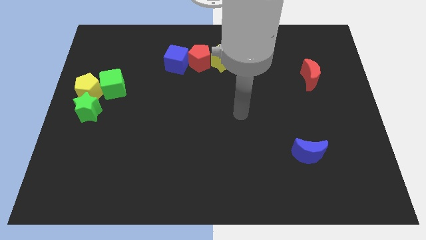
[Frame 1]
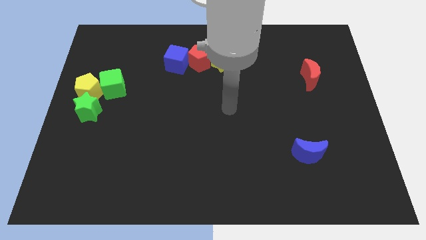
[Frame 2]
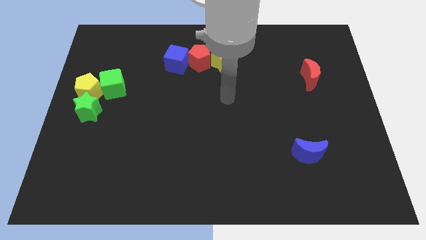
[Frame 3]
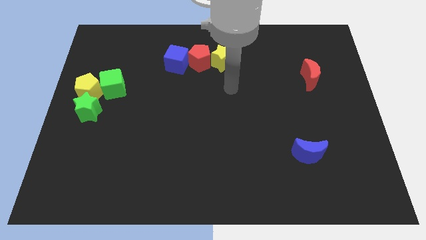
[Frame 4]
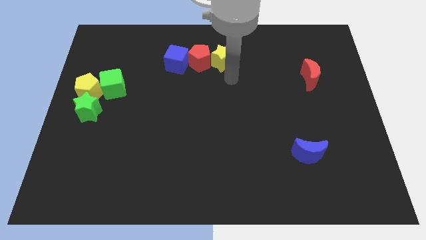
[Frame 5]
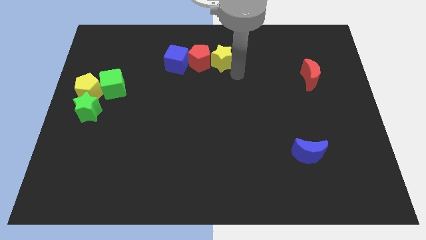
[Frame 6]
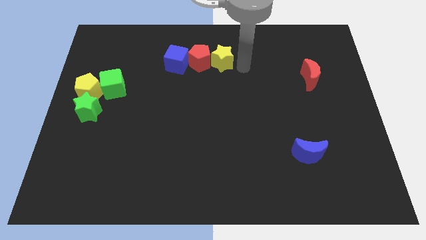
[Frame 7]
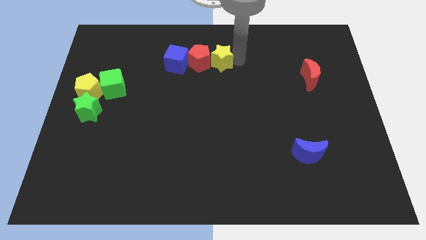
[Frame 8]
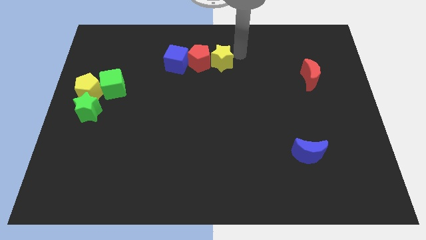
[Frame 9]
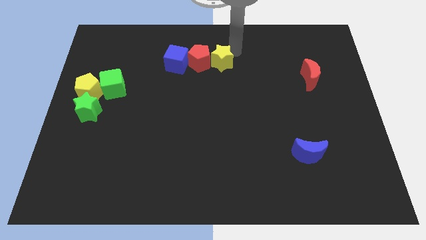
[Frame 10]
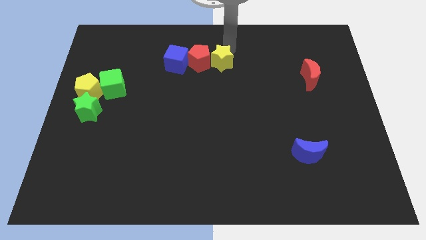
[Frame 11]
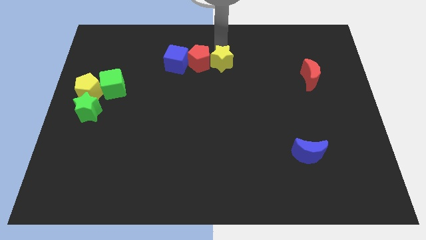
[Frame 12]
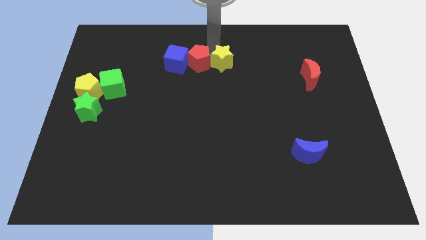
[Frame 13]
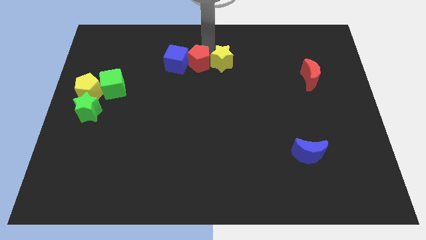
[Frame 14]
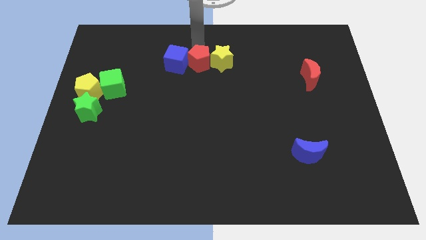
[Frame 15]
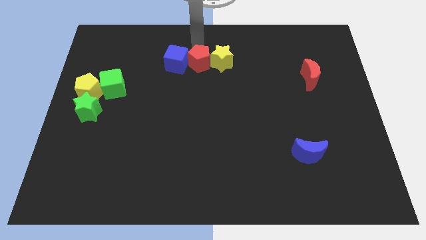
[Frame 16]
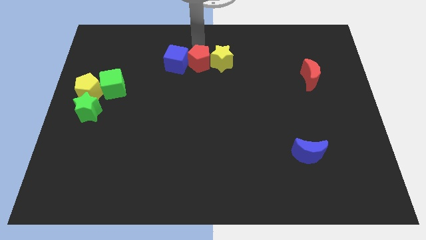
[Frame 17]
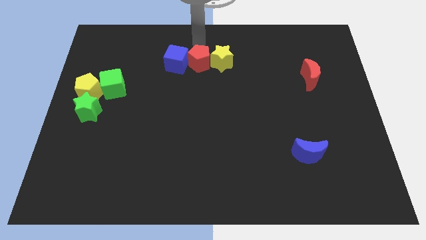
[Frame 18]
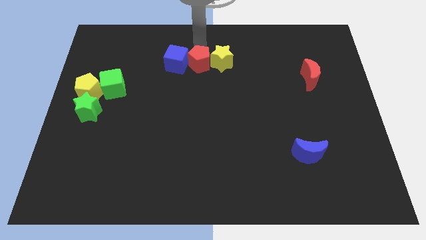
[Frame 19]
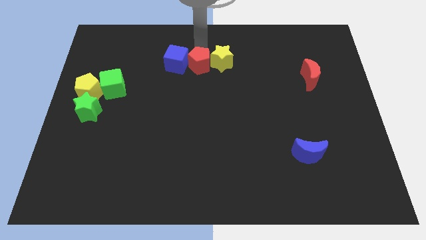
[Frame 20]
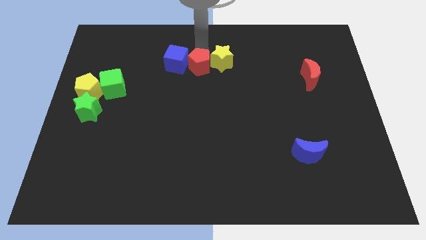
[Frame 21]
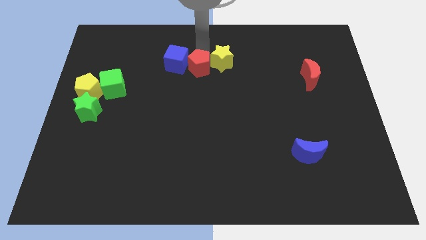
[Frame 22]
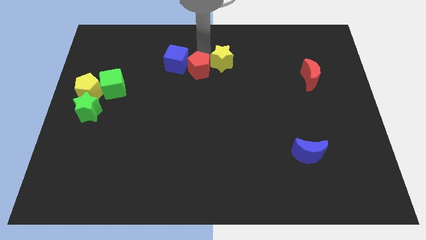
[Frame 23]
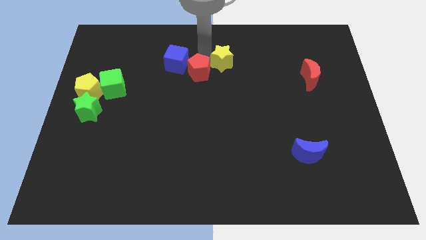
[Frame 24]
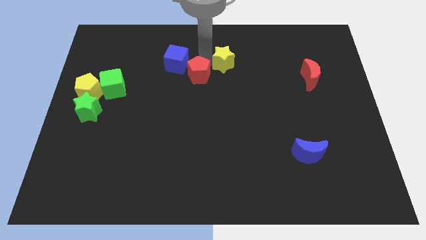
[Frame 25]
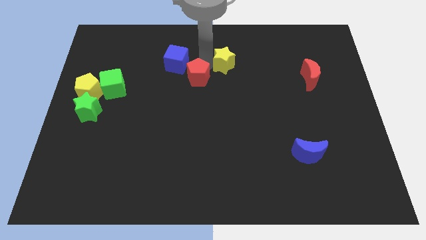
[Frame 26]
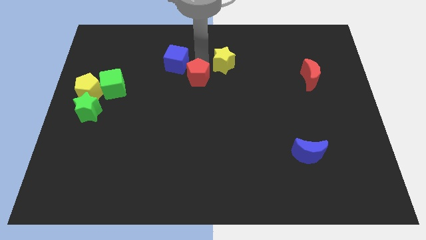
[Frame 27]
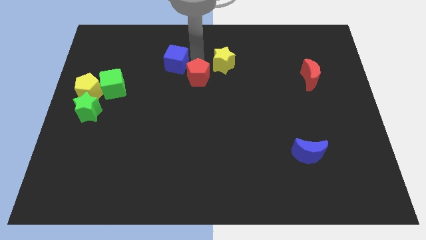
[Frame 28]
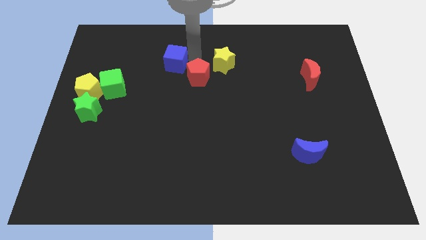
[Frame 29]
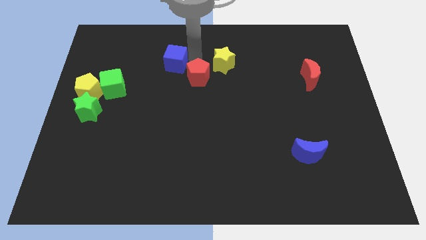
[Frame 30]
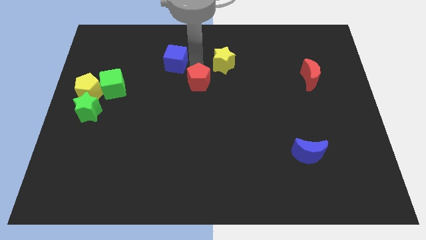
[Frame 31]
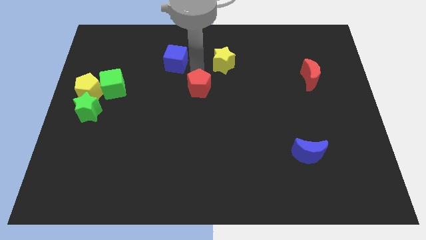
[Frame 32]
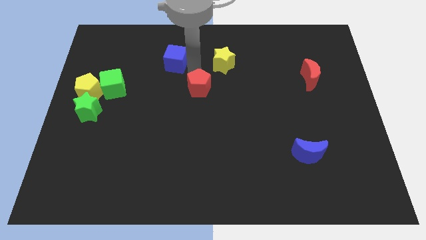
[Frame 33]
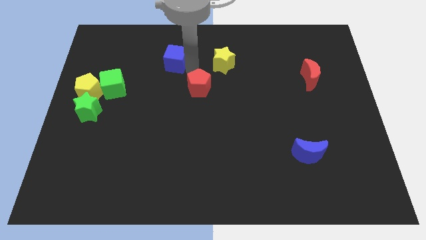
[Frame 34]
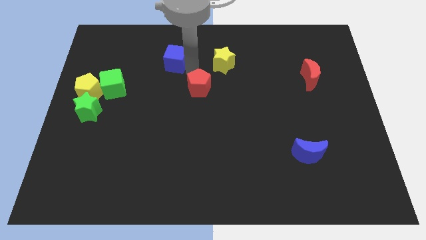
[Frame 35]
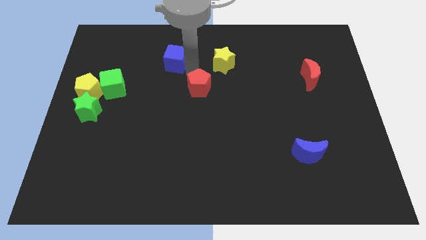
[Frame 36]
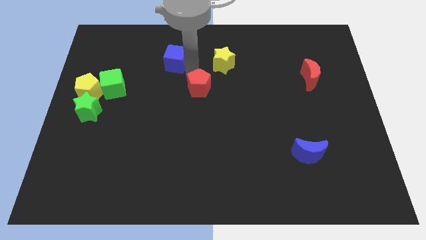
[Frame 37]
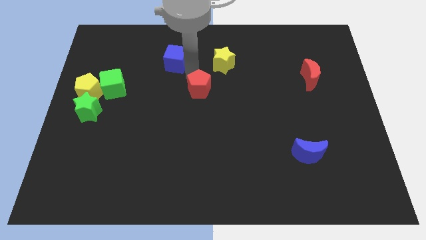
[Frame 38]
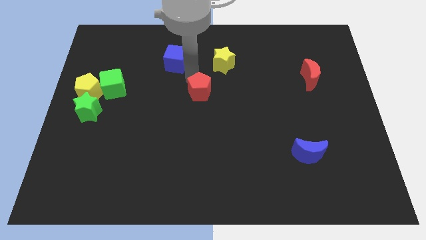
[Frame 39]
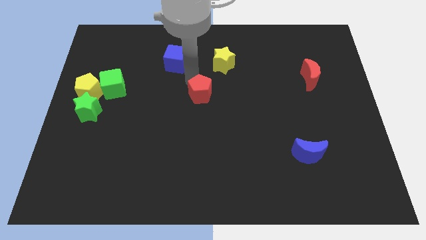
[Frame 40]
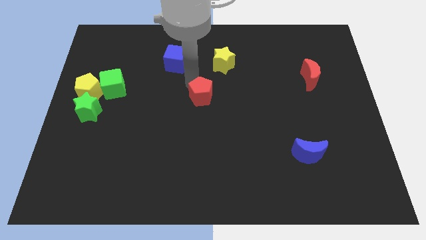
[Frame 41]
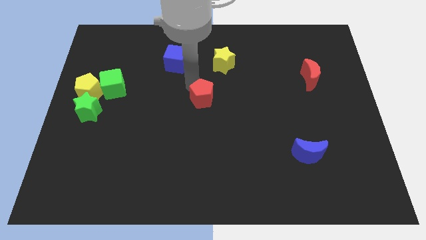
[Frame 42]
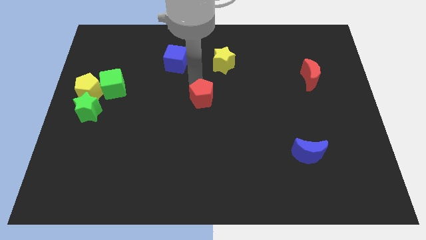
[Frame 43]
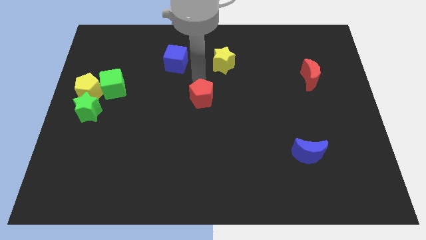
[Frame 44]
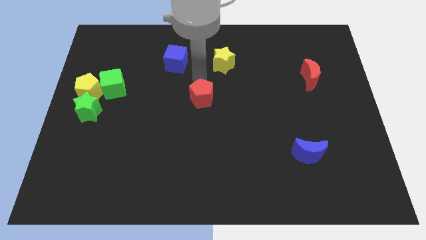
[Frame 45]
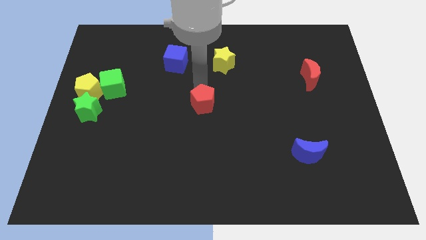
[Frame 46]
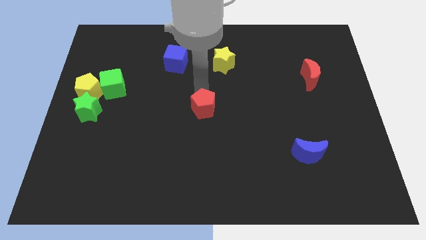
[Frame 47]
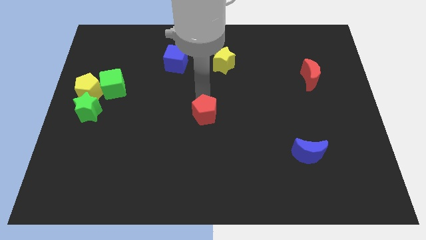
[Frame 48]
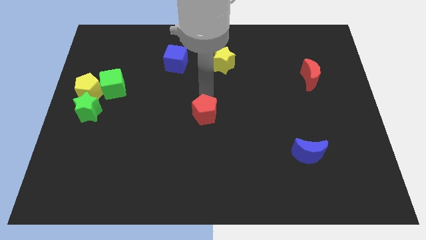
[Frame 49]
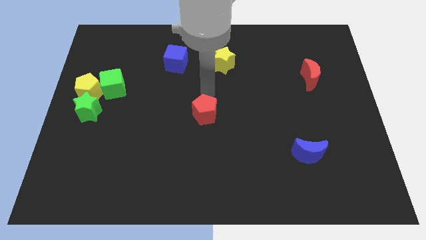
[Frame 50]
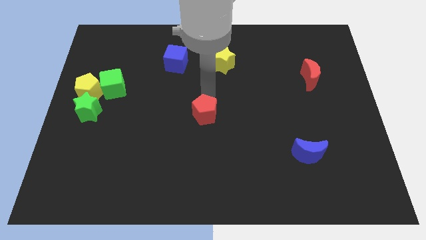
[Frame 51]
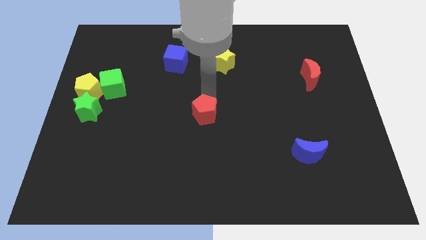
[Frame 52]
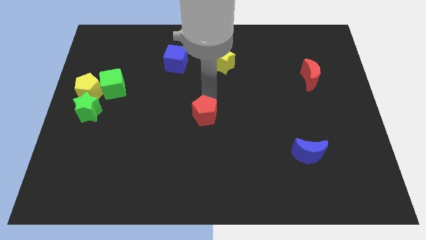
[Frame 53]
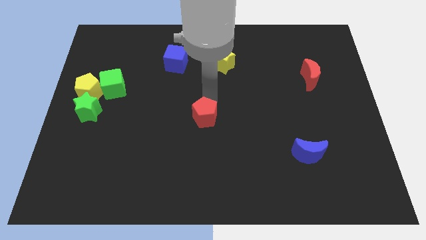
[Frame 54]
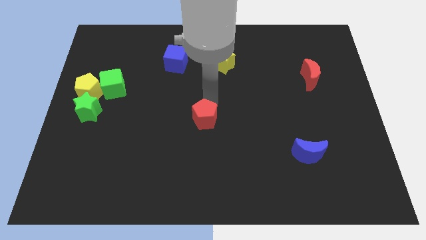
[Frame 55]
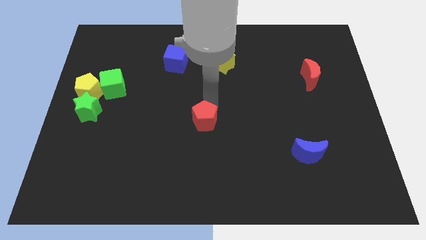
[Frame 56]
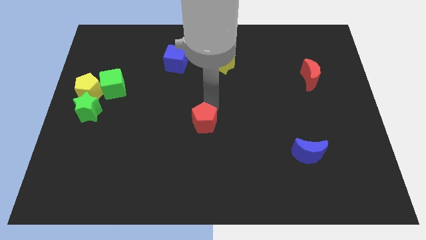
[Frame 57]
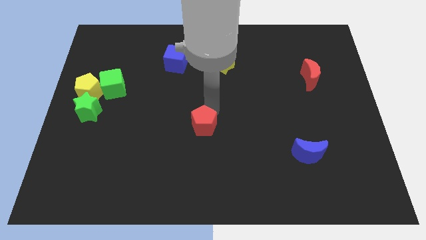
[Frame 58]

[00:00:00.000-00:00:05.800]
slide the red pentagon downwards

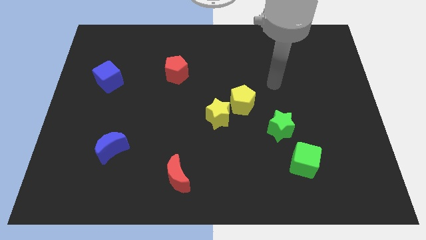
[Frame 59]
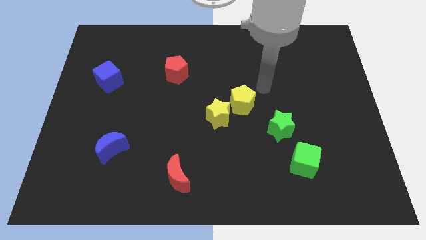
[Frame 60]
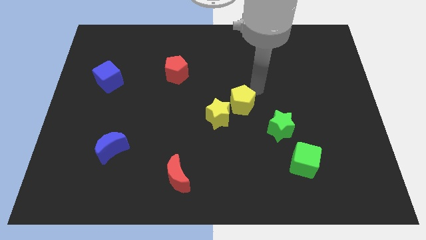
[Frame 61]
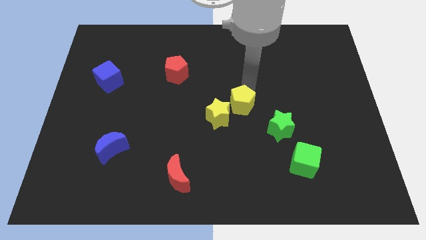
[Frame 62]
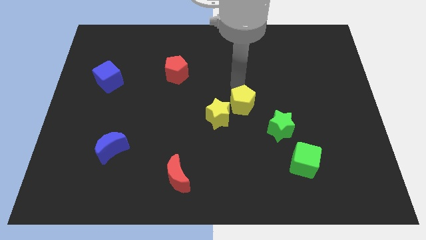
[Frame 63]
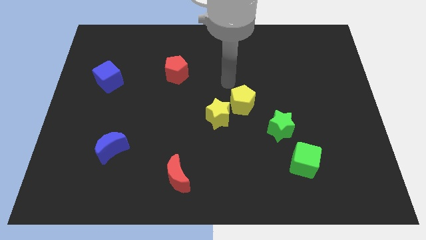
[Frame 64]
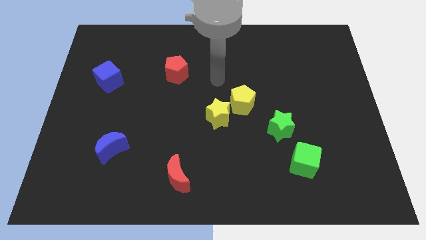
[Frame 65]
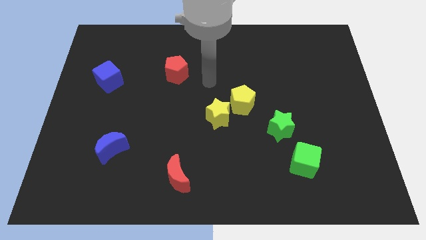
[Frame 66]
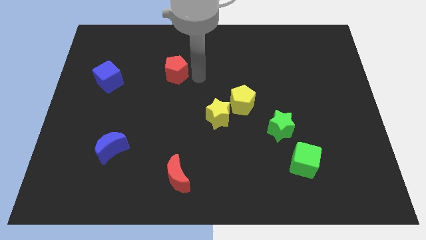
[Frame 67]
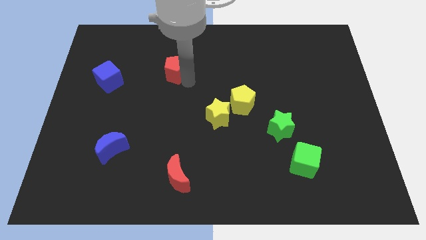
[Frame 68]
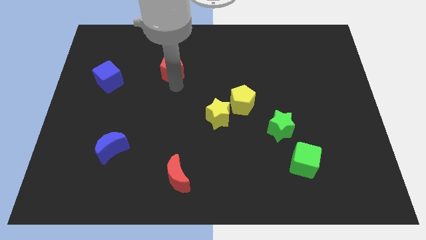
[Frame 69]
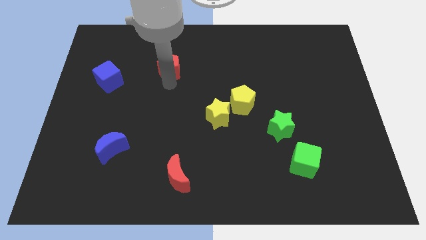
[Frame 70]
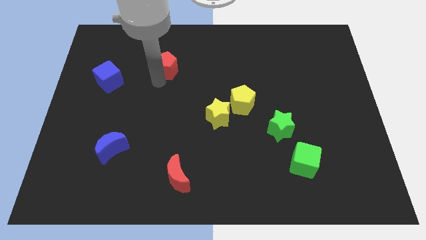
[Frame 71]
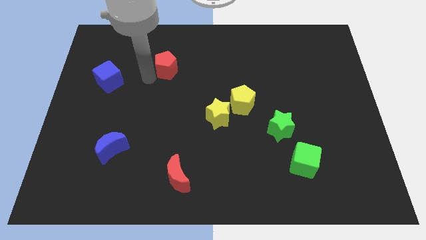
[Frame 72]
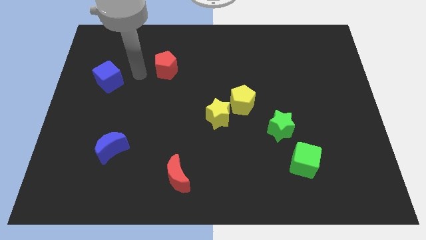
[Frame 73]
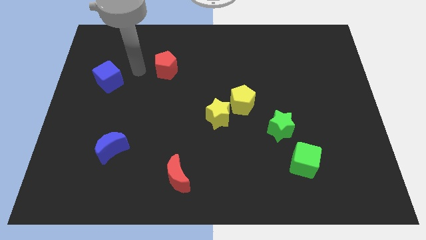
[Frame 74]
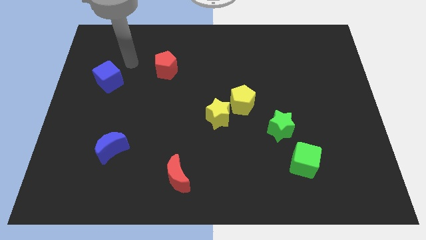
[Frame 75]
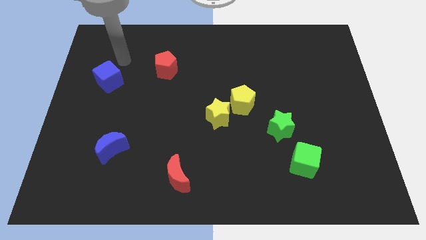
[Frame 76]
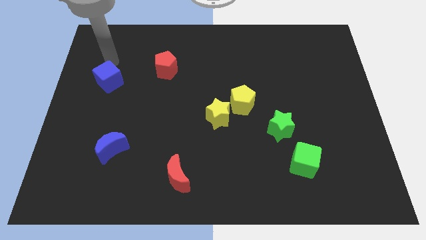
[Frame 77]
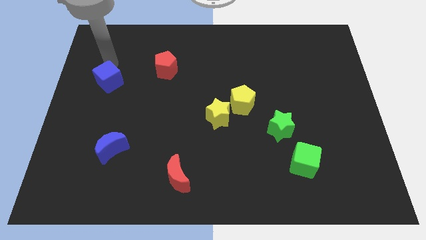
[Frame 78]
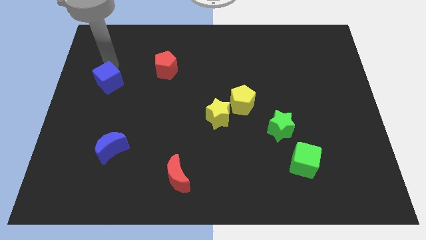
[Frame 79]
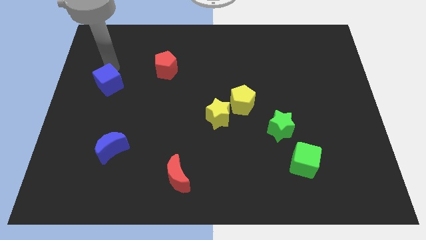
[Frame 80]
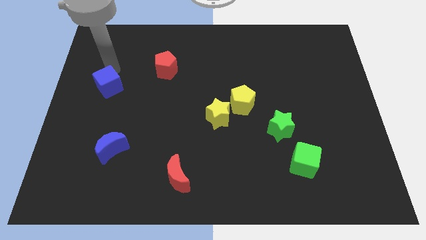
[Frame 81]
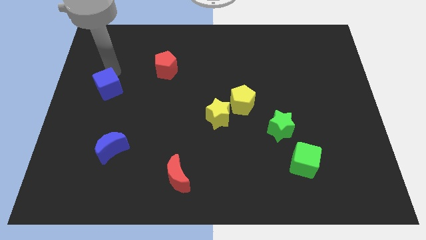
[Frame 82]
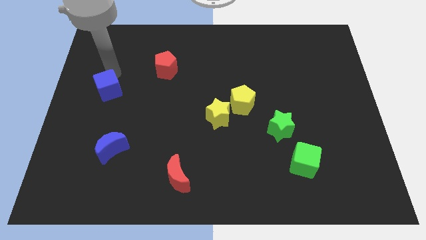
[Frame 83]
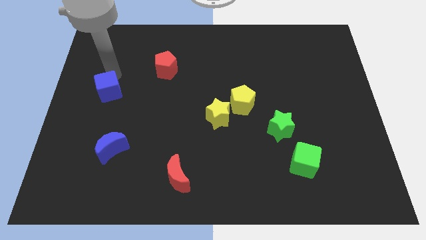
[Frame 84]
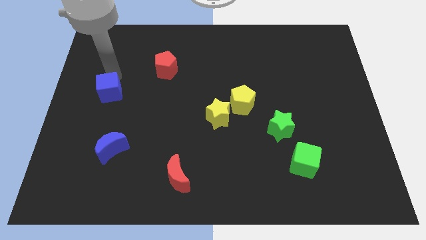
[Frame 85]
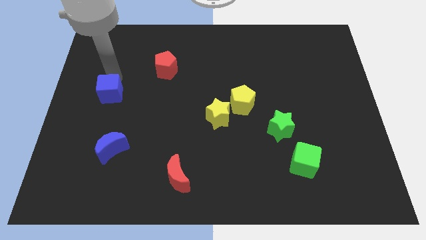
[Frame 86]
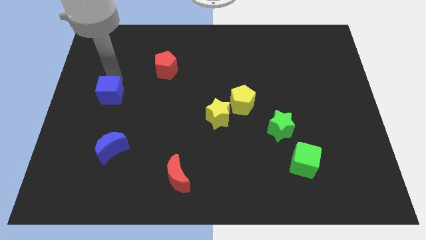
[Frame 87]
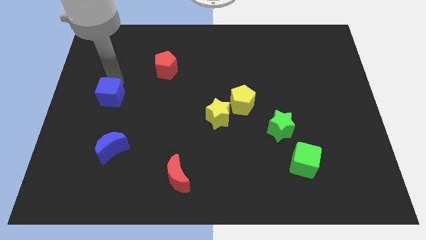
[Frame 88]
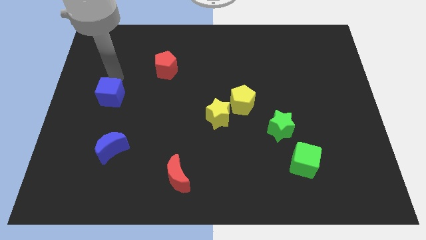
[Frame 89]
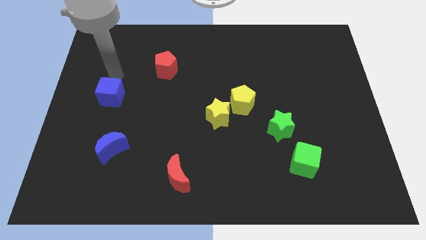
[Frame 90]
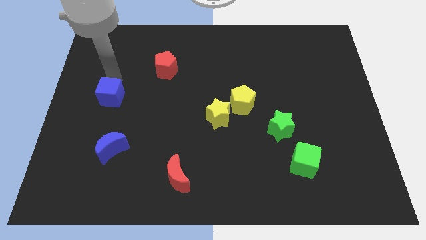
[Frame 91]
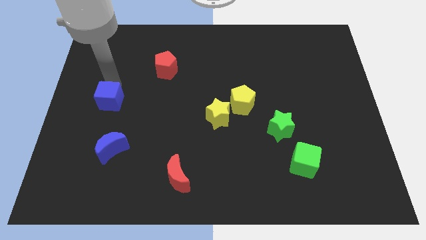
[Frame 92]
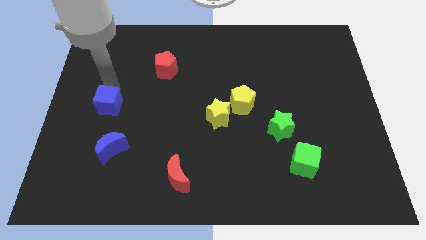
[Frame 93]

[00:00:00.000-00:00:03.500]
move the blue cube downwards a bit
